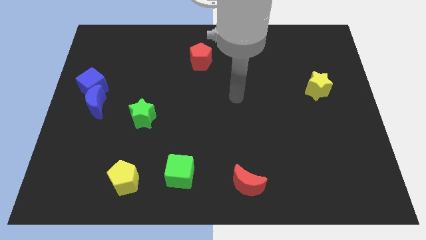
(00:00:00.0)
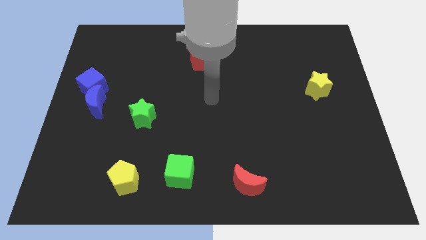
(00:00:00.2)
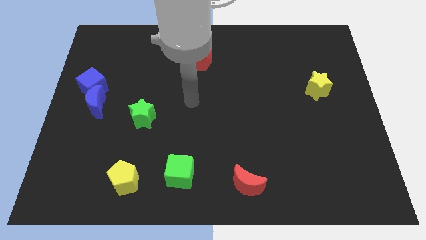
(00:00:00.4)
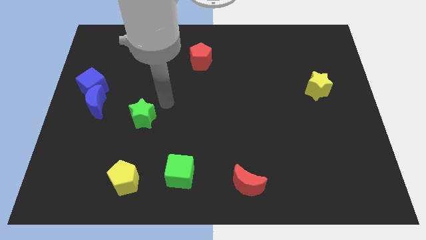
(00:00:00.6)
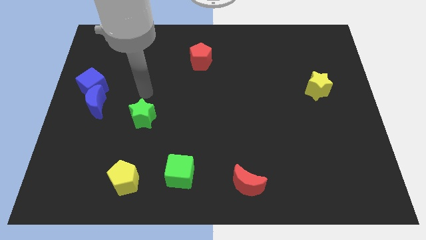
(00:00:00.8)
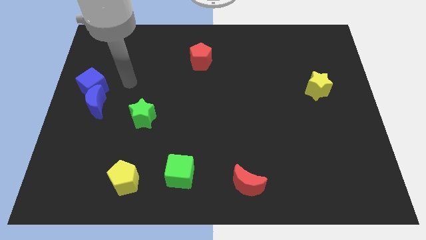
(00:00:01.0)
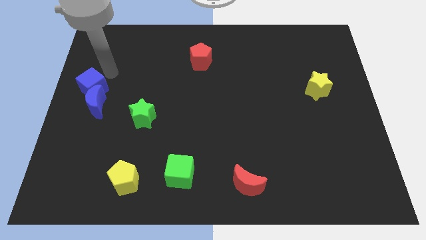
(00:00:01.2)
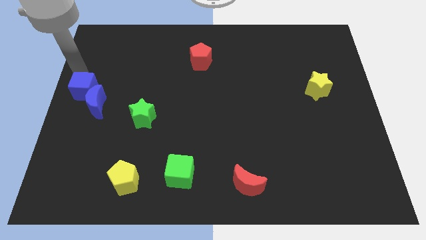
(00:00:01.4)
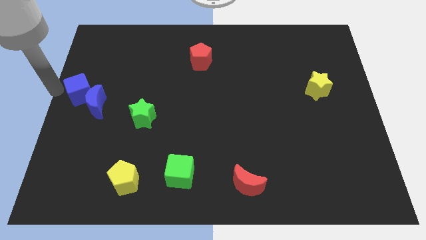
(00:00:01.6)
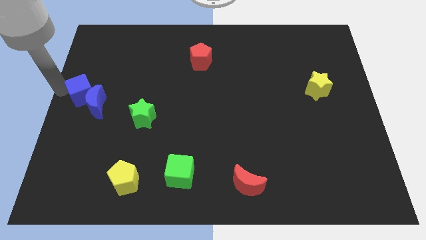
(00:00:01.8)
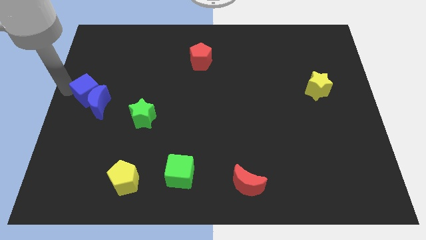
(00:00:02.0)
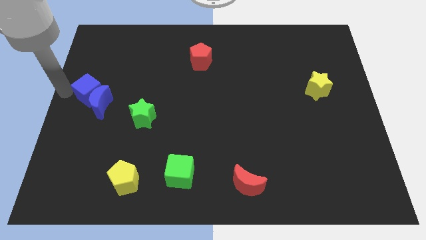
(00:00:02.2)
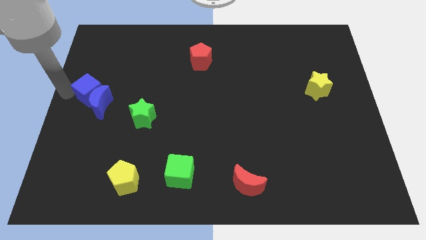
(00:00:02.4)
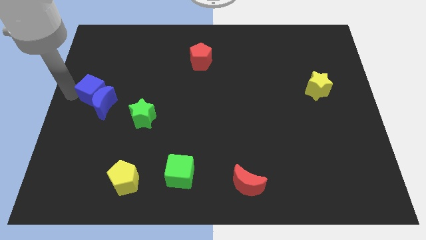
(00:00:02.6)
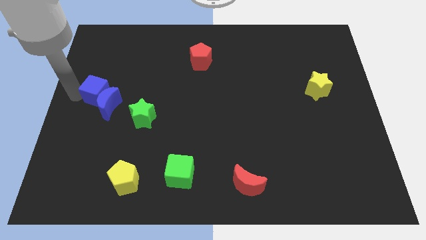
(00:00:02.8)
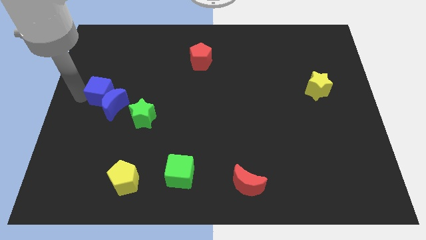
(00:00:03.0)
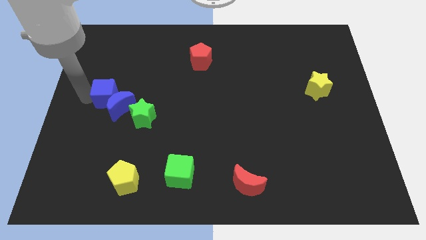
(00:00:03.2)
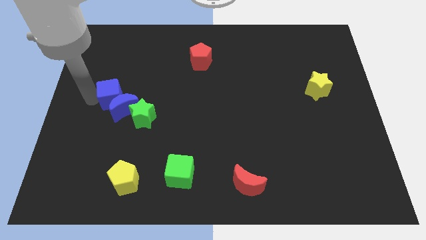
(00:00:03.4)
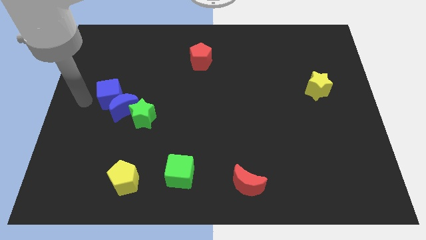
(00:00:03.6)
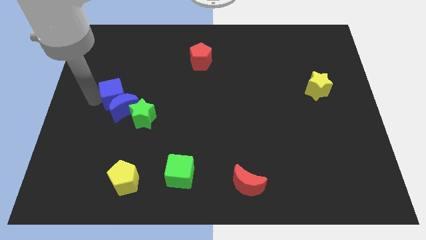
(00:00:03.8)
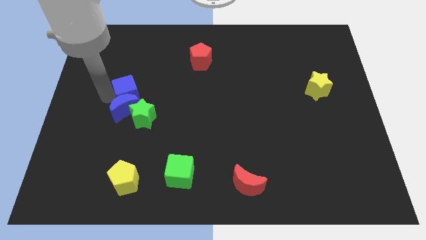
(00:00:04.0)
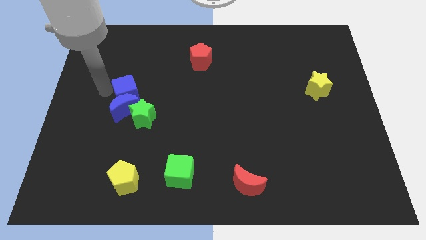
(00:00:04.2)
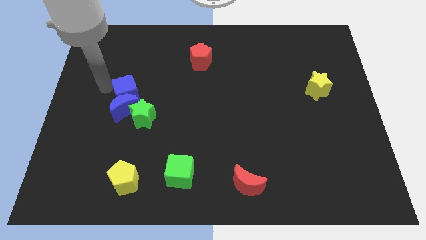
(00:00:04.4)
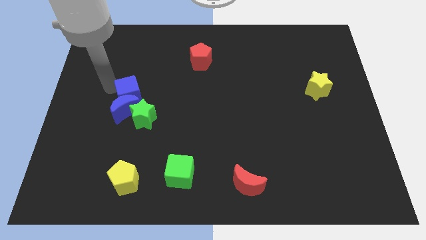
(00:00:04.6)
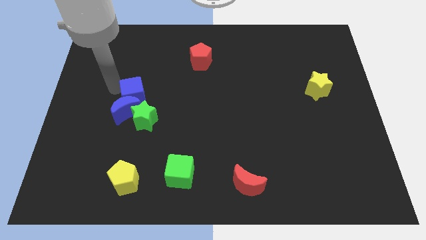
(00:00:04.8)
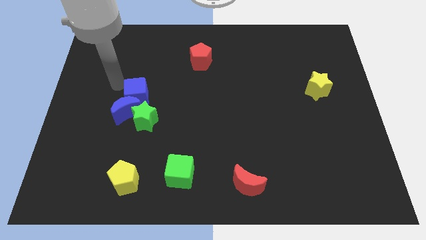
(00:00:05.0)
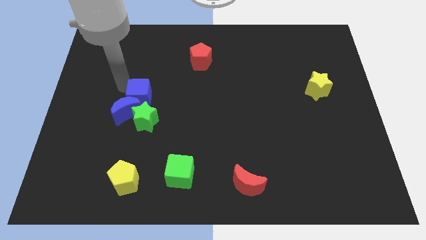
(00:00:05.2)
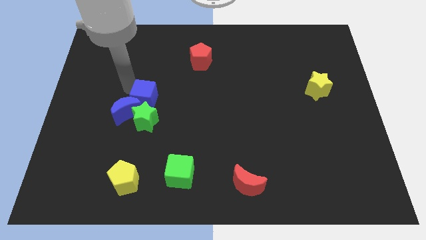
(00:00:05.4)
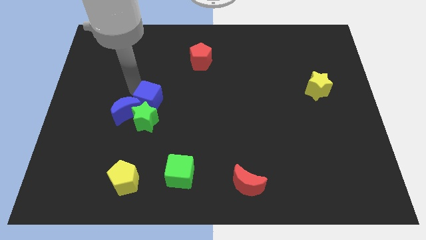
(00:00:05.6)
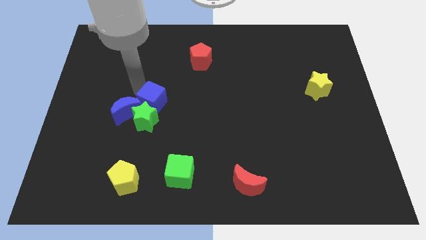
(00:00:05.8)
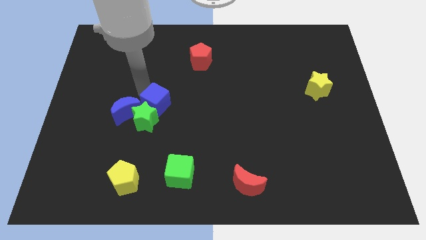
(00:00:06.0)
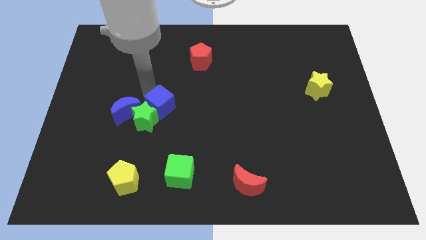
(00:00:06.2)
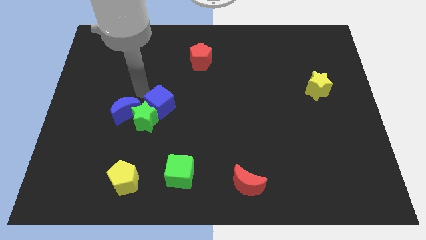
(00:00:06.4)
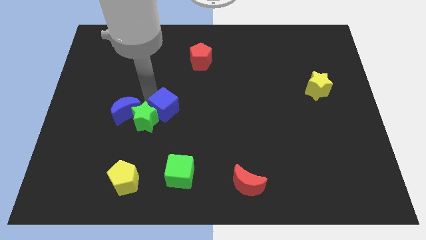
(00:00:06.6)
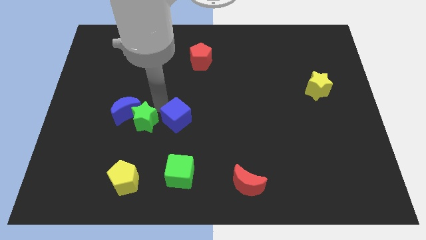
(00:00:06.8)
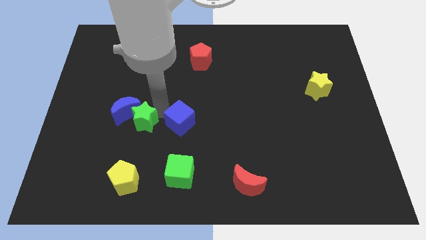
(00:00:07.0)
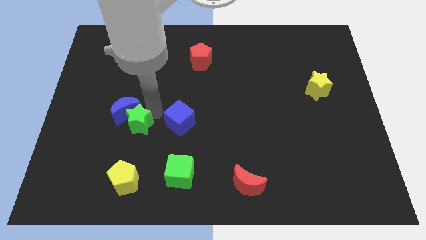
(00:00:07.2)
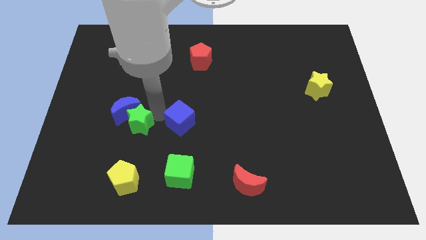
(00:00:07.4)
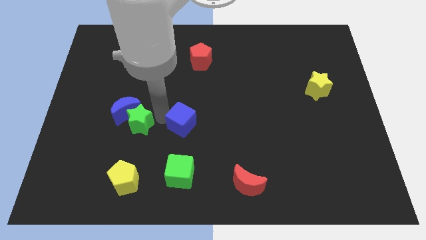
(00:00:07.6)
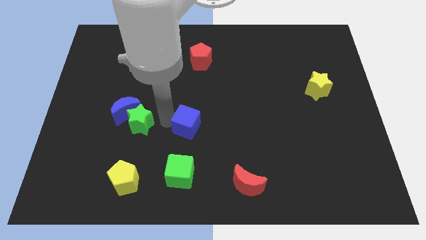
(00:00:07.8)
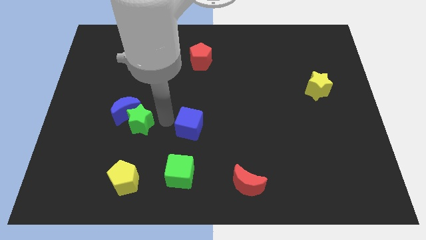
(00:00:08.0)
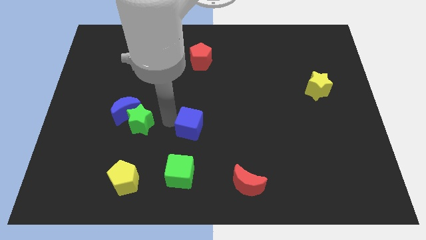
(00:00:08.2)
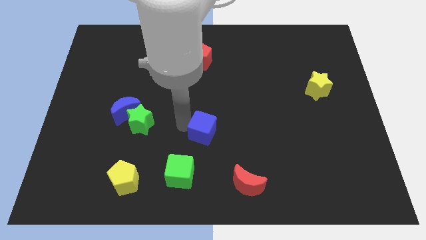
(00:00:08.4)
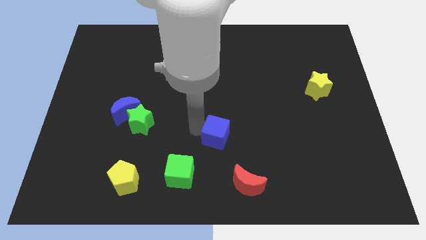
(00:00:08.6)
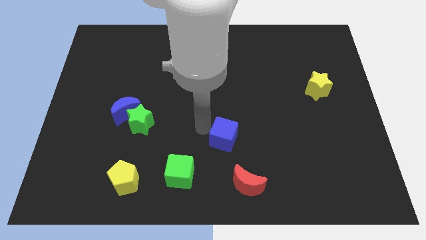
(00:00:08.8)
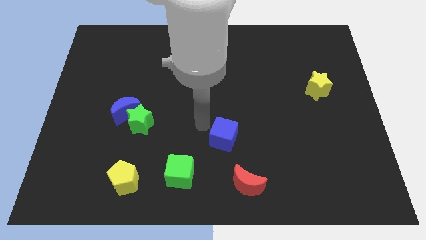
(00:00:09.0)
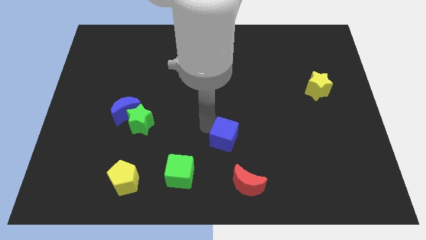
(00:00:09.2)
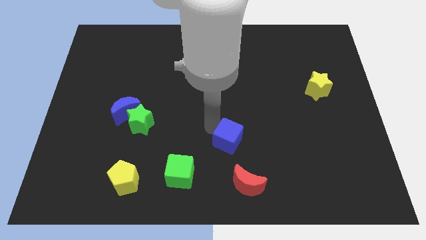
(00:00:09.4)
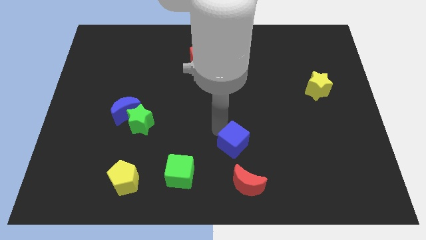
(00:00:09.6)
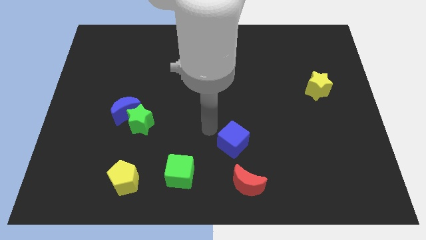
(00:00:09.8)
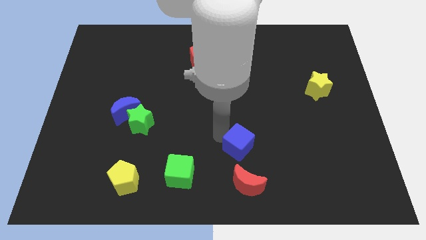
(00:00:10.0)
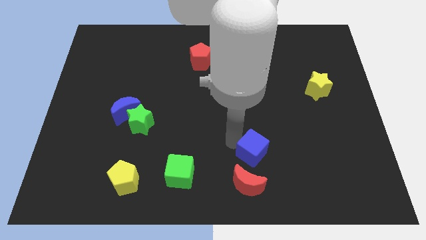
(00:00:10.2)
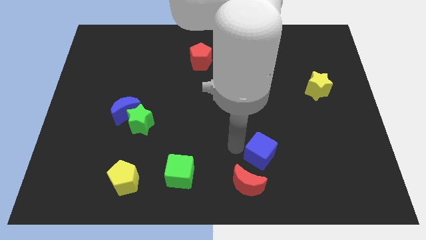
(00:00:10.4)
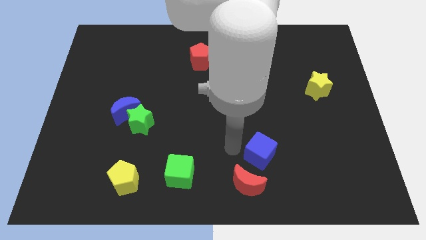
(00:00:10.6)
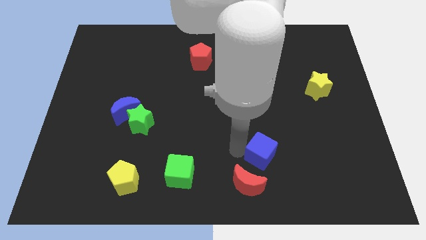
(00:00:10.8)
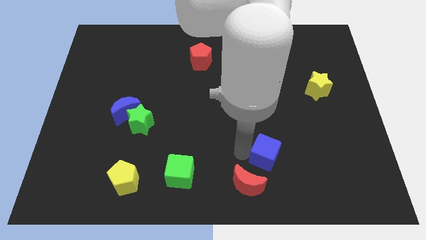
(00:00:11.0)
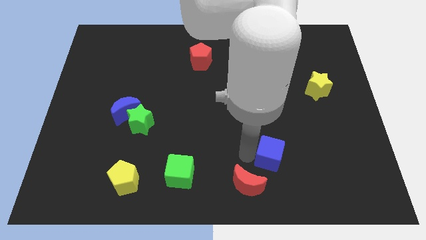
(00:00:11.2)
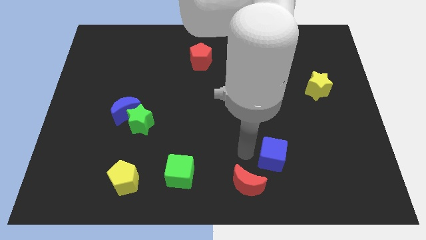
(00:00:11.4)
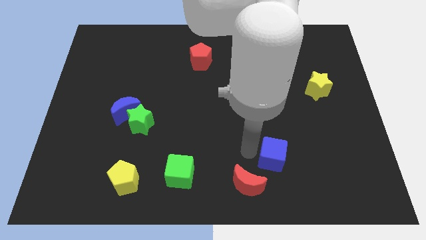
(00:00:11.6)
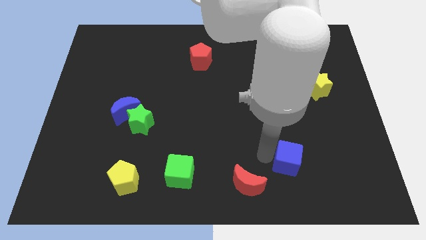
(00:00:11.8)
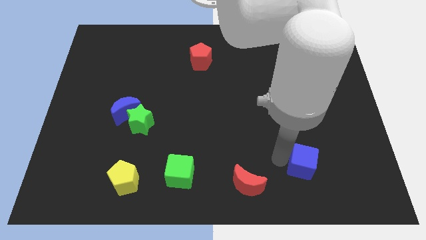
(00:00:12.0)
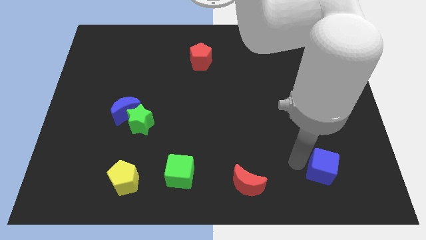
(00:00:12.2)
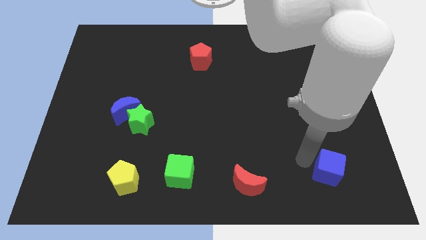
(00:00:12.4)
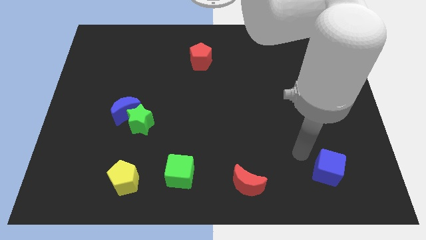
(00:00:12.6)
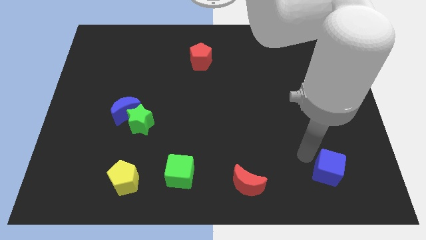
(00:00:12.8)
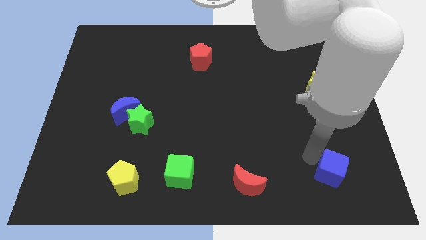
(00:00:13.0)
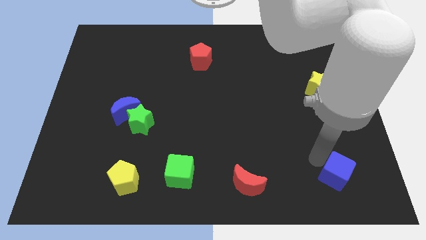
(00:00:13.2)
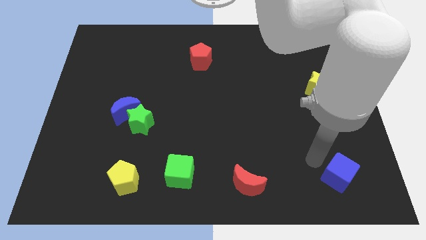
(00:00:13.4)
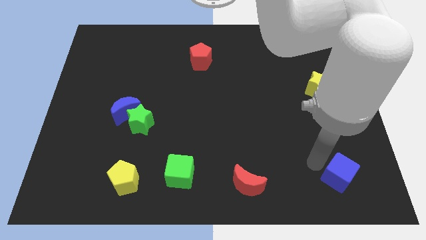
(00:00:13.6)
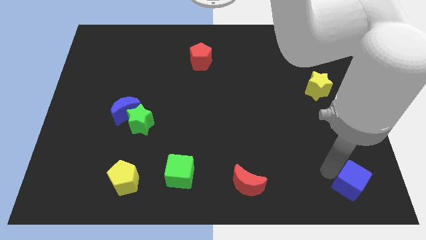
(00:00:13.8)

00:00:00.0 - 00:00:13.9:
move the blue cube to the bottom right of the board
